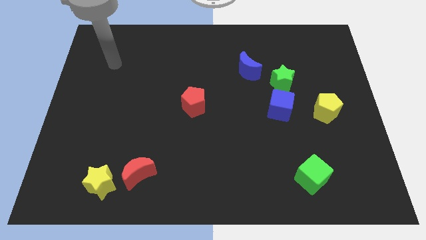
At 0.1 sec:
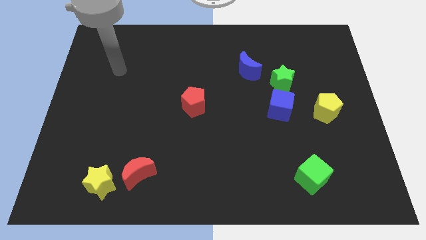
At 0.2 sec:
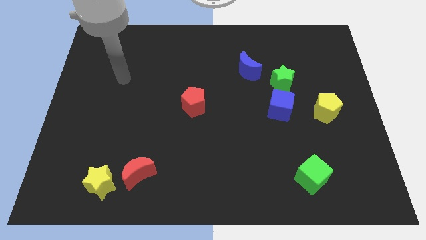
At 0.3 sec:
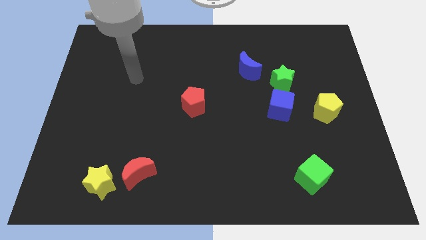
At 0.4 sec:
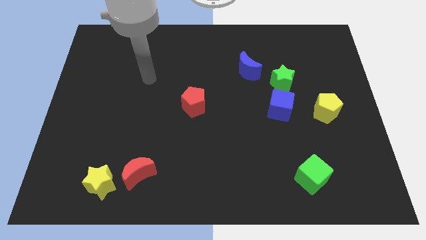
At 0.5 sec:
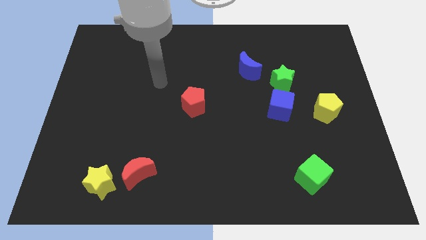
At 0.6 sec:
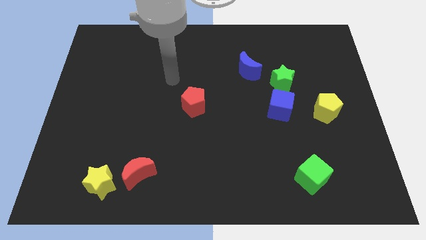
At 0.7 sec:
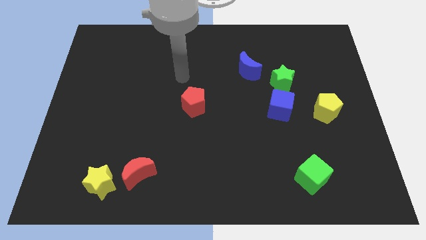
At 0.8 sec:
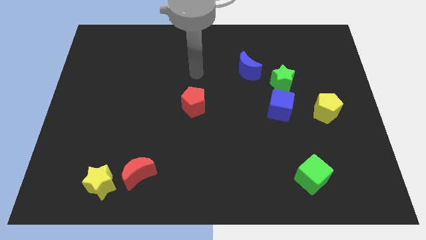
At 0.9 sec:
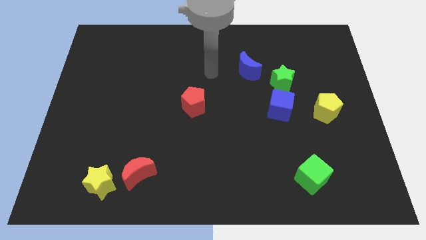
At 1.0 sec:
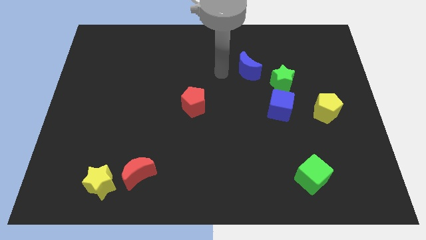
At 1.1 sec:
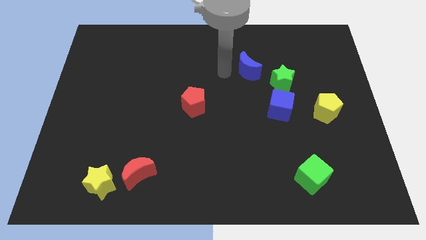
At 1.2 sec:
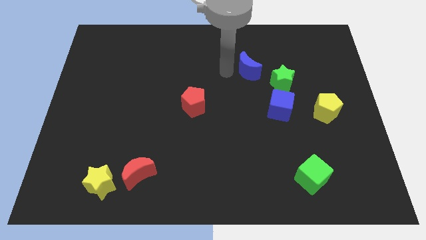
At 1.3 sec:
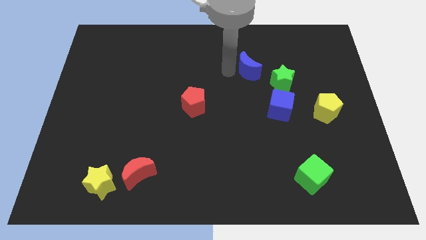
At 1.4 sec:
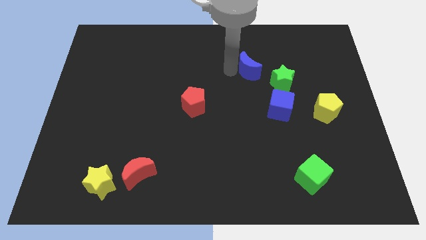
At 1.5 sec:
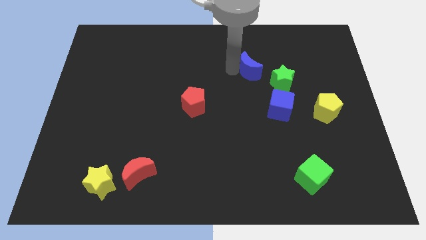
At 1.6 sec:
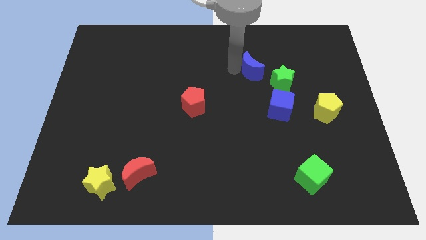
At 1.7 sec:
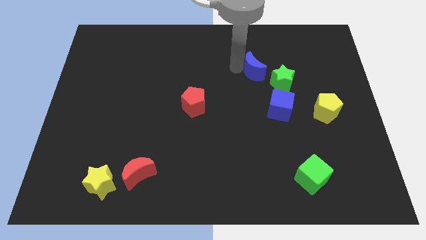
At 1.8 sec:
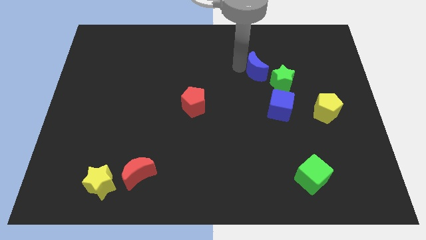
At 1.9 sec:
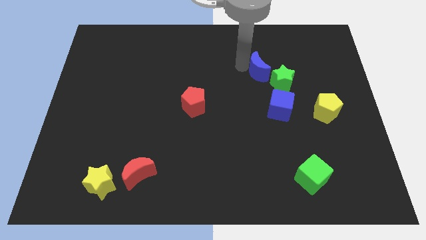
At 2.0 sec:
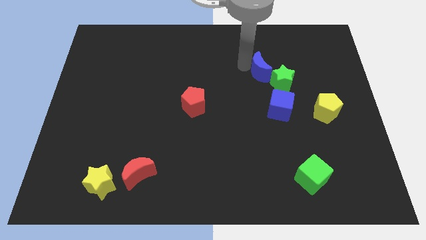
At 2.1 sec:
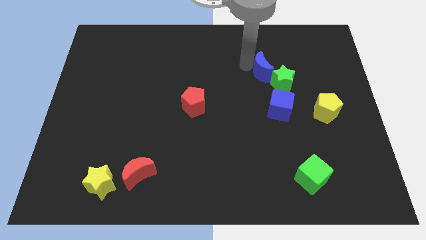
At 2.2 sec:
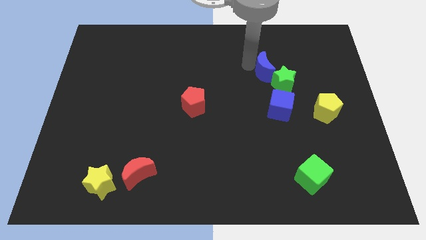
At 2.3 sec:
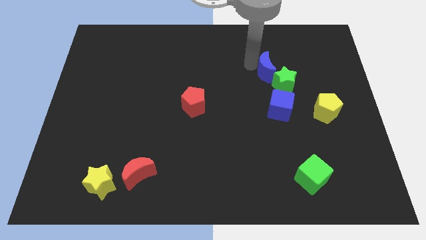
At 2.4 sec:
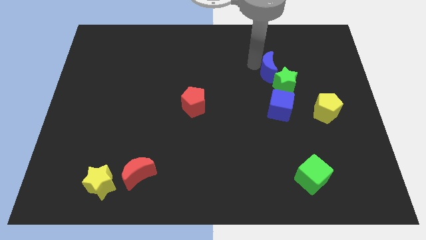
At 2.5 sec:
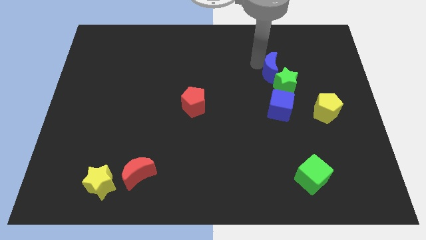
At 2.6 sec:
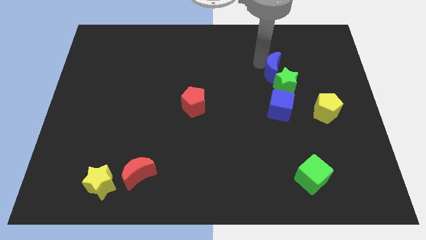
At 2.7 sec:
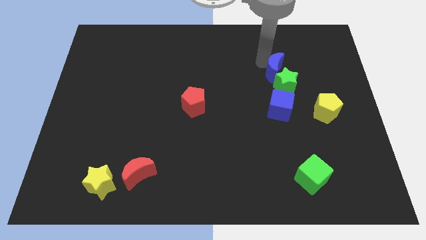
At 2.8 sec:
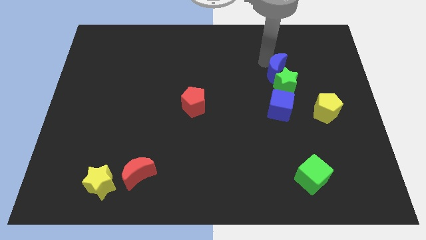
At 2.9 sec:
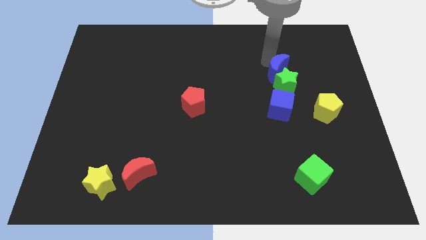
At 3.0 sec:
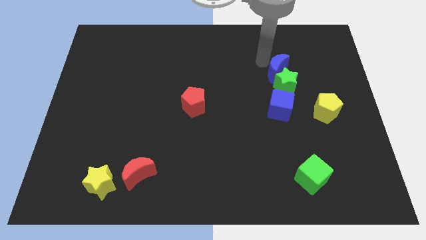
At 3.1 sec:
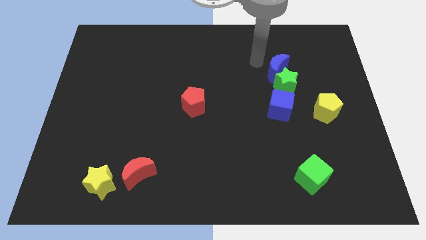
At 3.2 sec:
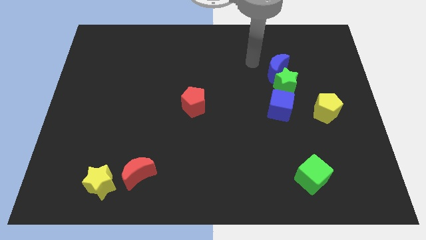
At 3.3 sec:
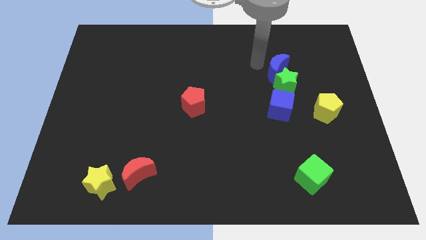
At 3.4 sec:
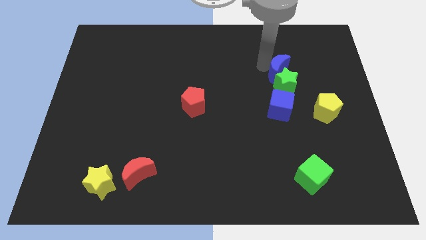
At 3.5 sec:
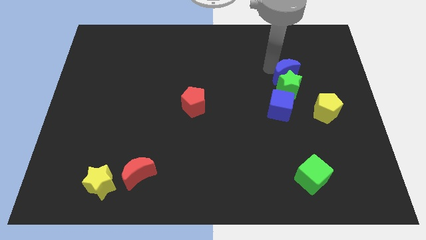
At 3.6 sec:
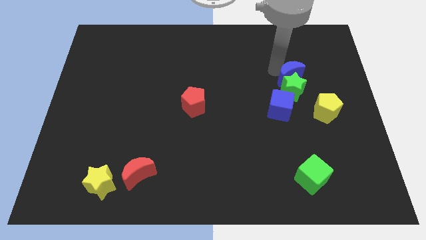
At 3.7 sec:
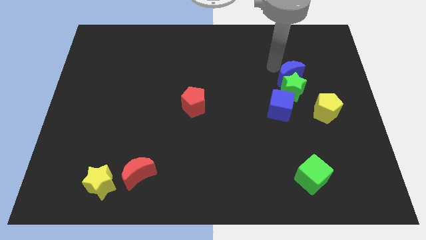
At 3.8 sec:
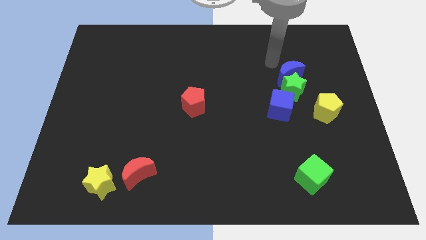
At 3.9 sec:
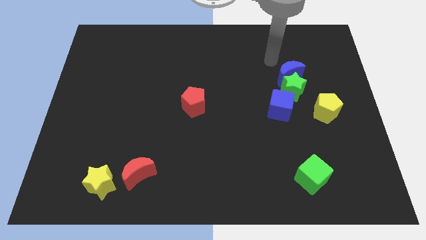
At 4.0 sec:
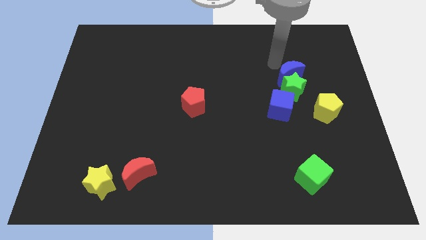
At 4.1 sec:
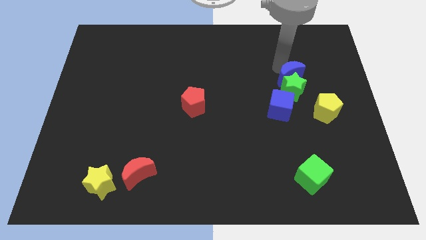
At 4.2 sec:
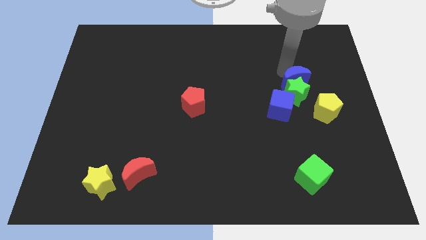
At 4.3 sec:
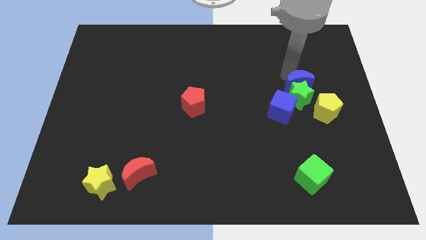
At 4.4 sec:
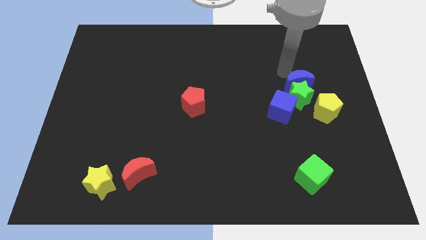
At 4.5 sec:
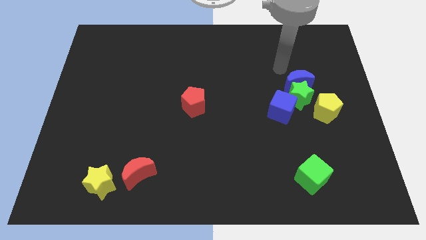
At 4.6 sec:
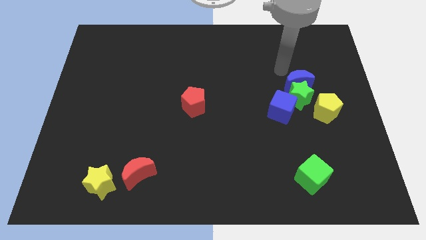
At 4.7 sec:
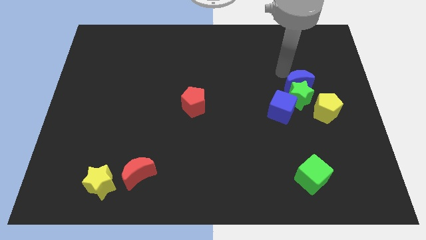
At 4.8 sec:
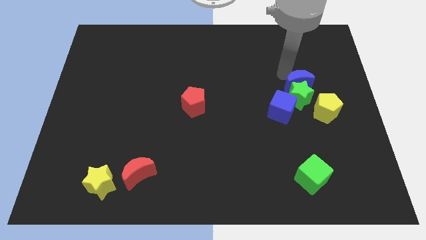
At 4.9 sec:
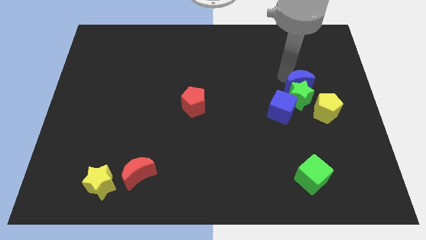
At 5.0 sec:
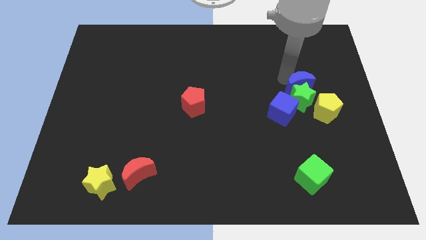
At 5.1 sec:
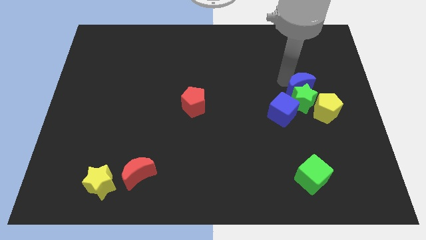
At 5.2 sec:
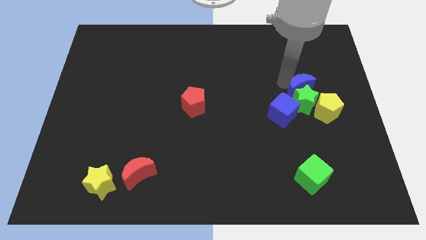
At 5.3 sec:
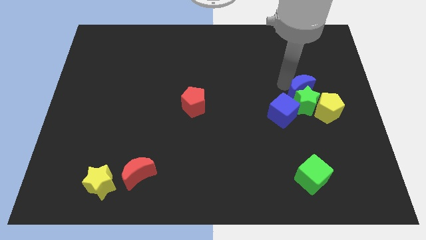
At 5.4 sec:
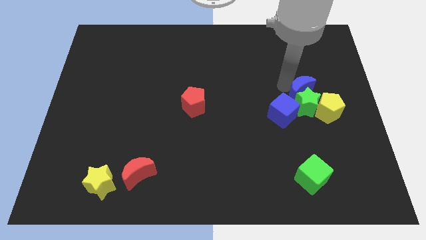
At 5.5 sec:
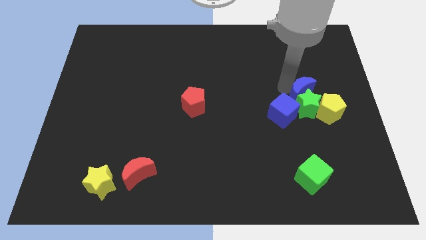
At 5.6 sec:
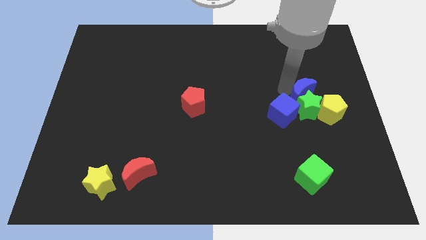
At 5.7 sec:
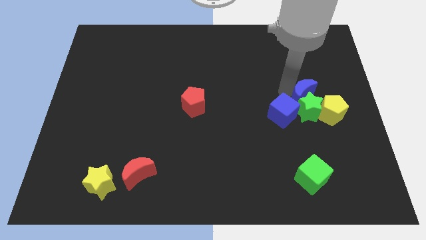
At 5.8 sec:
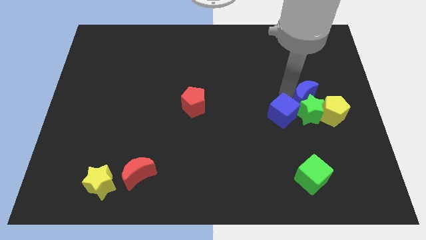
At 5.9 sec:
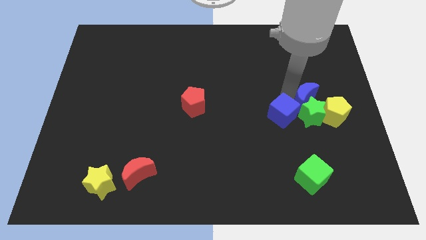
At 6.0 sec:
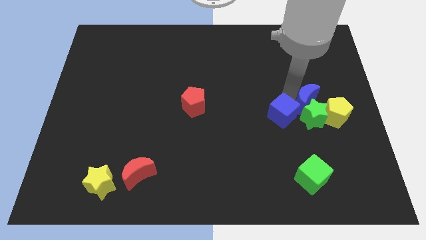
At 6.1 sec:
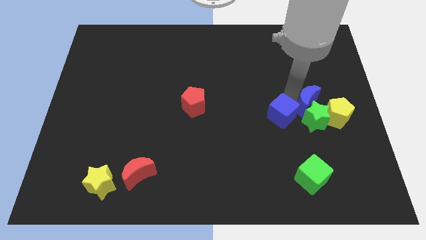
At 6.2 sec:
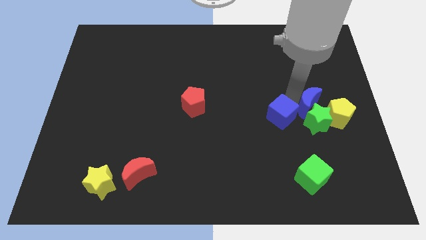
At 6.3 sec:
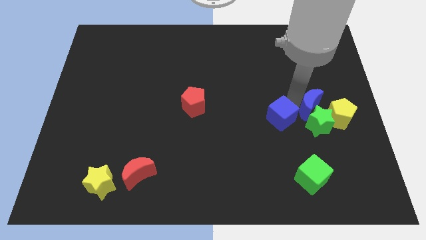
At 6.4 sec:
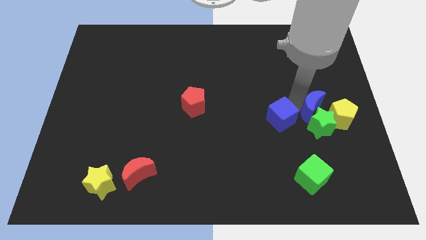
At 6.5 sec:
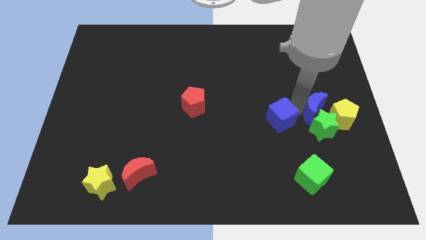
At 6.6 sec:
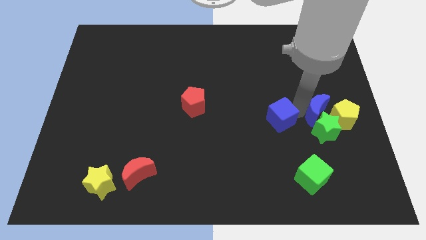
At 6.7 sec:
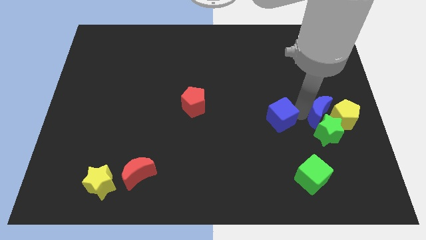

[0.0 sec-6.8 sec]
move the blue moon next to the yellow pentagon
